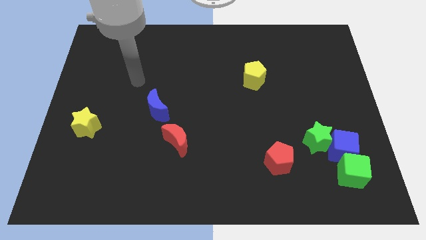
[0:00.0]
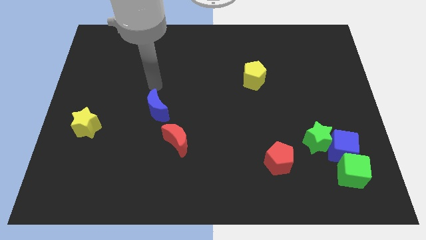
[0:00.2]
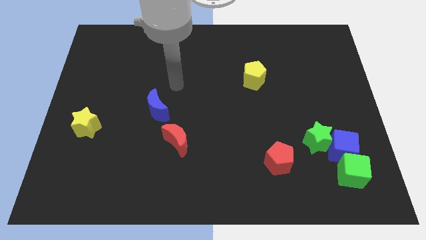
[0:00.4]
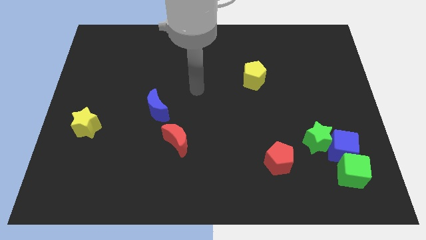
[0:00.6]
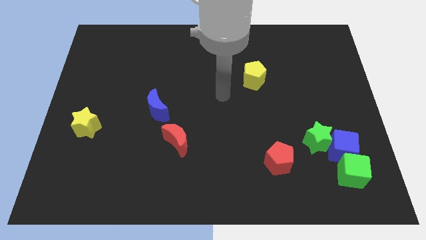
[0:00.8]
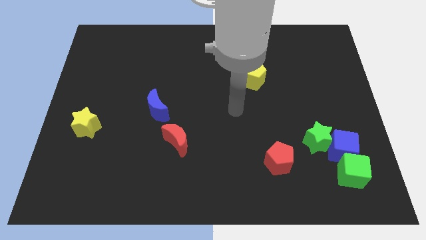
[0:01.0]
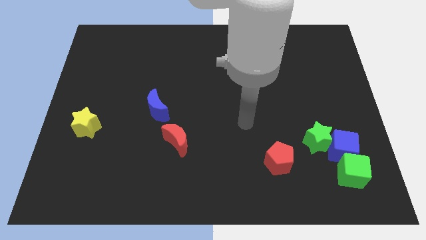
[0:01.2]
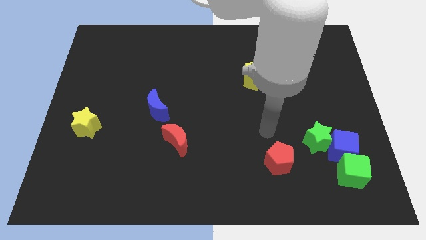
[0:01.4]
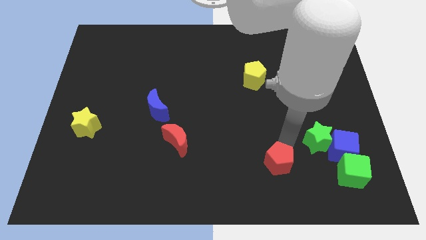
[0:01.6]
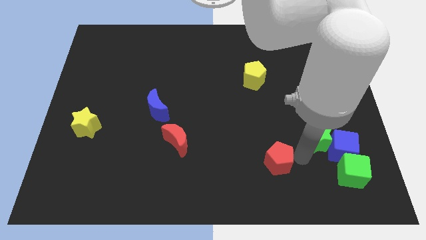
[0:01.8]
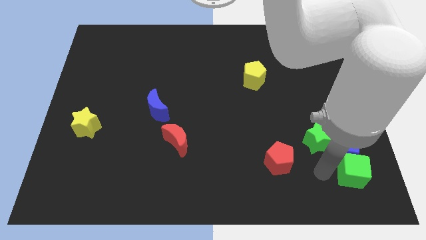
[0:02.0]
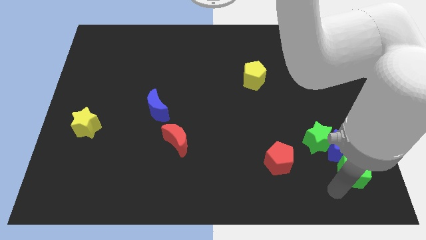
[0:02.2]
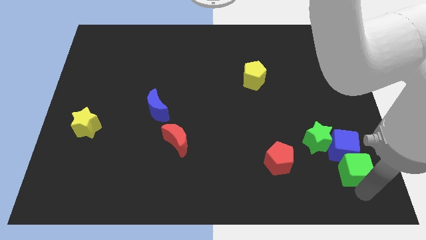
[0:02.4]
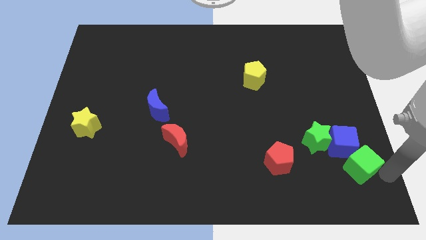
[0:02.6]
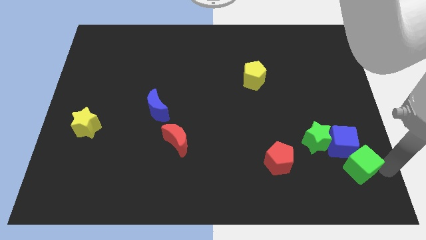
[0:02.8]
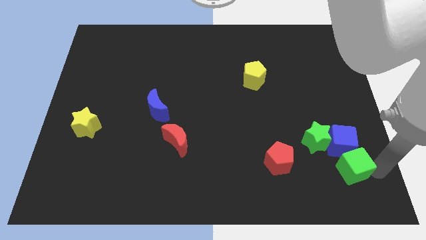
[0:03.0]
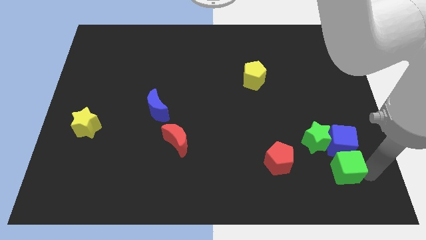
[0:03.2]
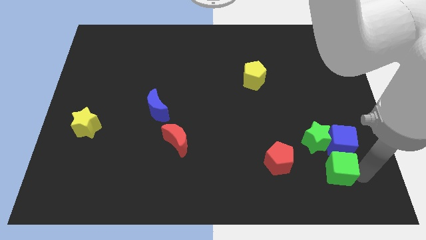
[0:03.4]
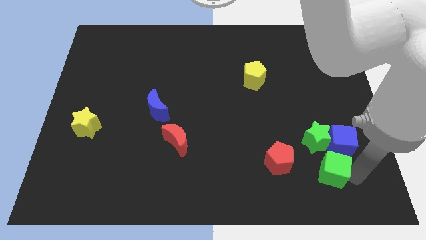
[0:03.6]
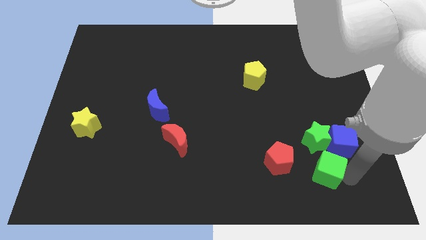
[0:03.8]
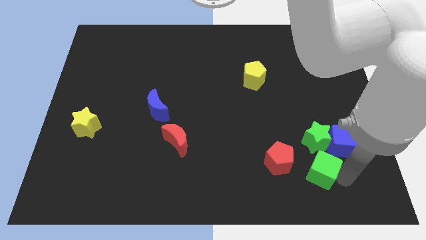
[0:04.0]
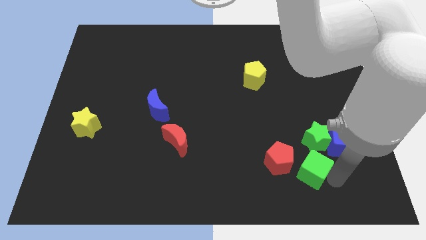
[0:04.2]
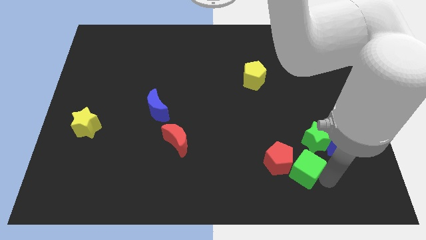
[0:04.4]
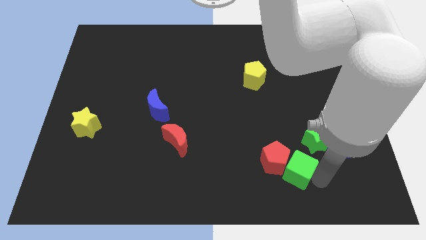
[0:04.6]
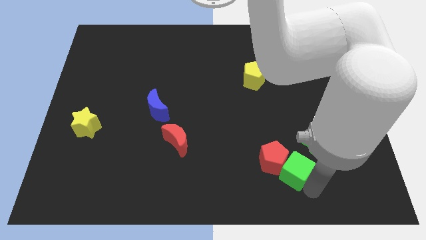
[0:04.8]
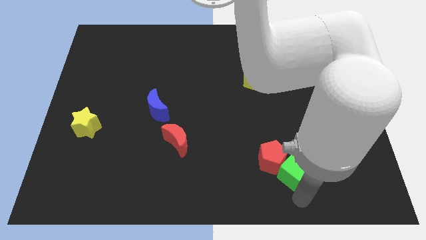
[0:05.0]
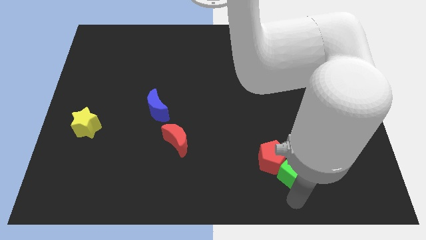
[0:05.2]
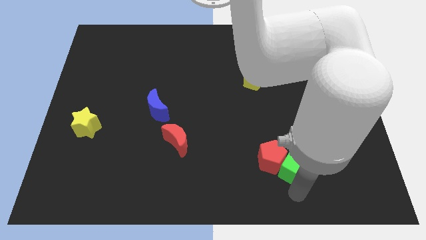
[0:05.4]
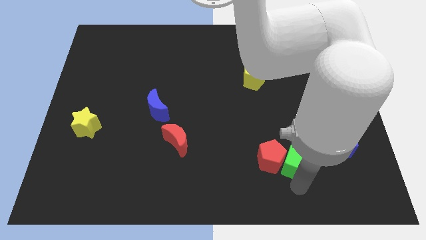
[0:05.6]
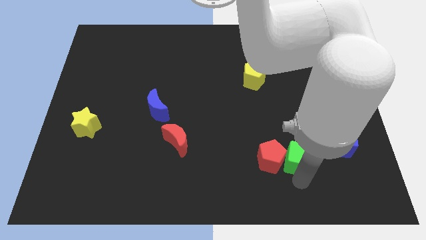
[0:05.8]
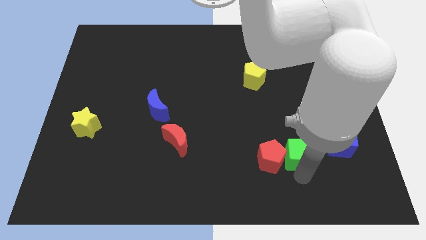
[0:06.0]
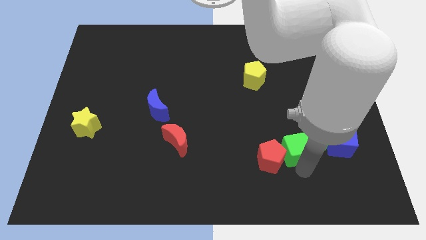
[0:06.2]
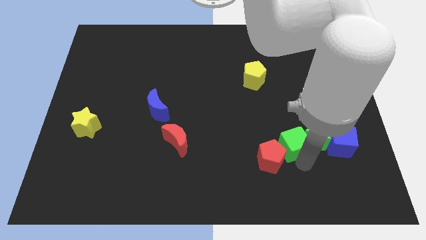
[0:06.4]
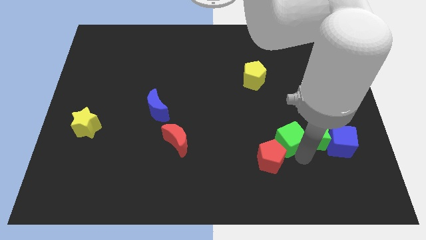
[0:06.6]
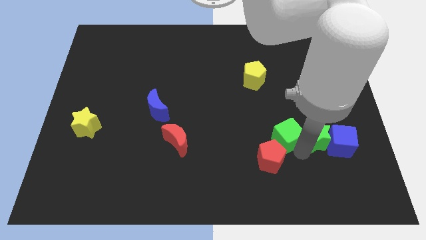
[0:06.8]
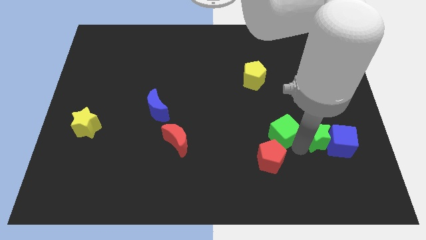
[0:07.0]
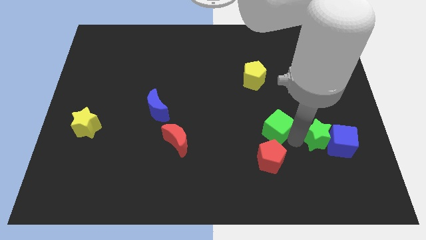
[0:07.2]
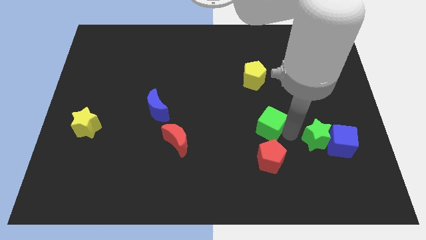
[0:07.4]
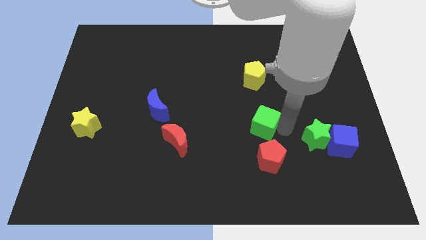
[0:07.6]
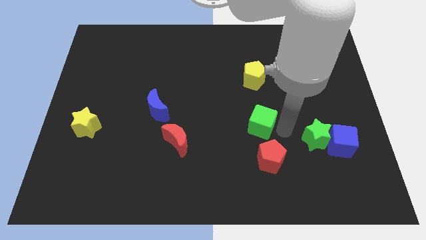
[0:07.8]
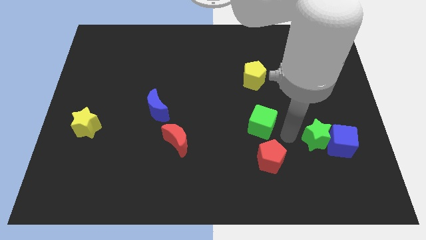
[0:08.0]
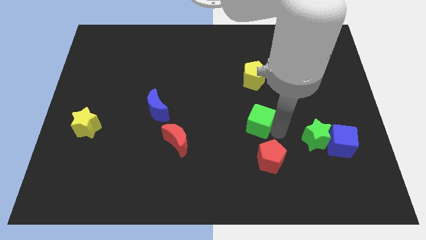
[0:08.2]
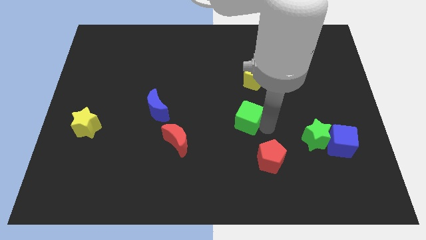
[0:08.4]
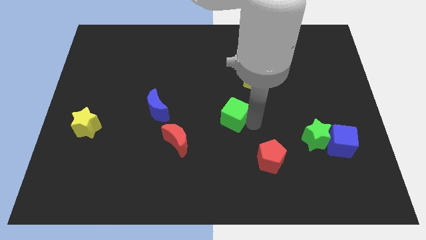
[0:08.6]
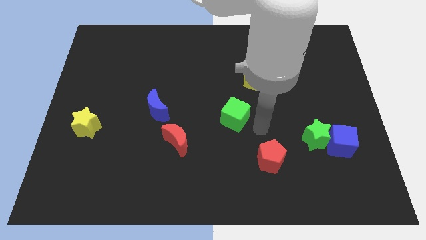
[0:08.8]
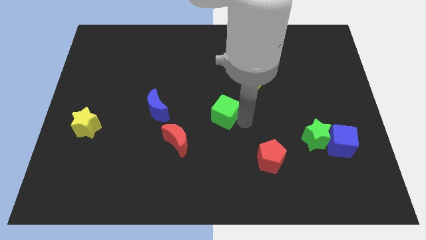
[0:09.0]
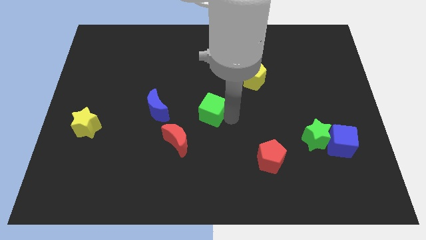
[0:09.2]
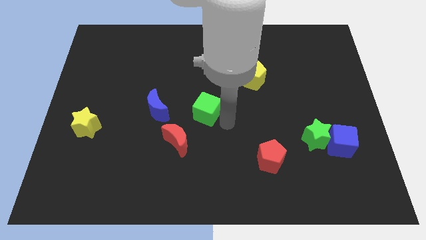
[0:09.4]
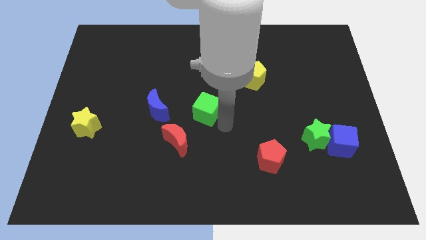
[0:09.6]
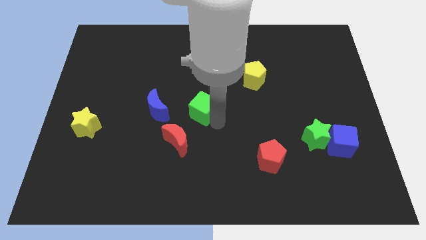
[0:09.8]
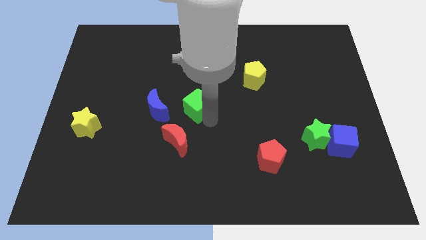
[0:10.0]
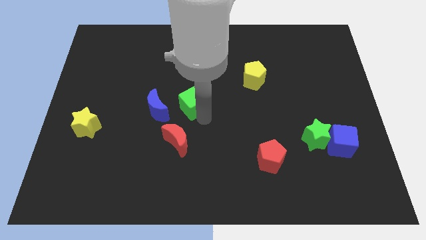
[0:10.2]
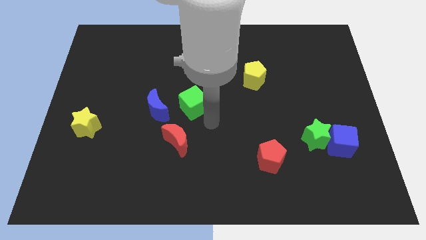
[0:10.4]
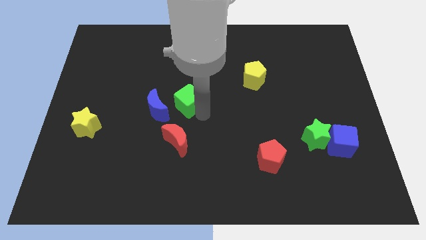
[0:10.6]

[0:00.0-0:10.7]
move the green cube to the top right side of the blue moon

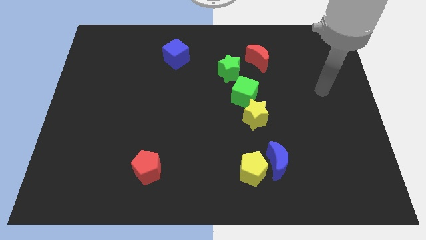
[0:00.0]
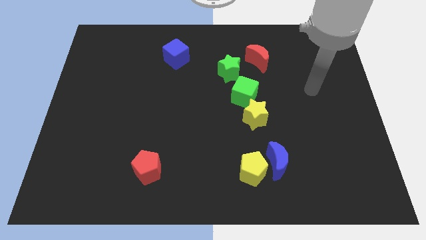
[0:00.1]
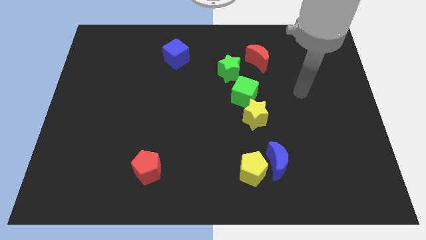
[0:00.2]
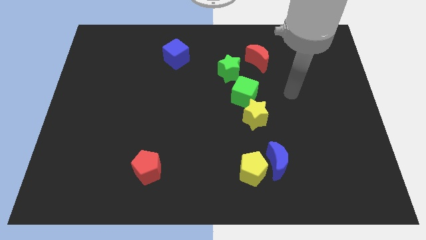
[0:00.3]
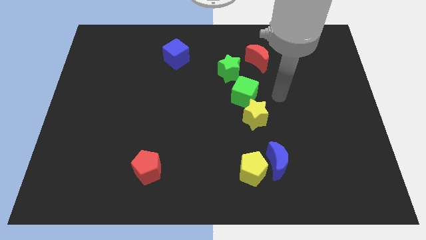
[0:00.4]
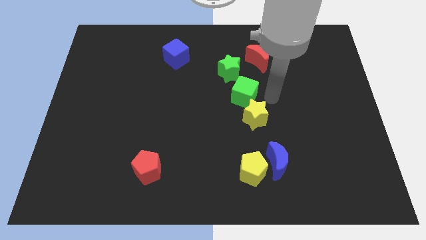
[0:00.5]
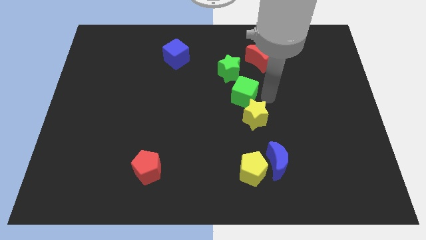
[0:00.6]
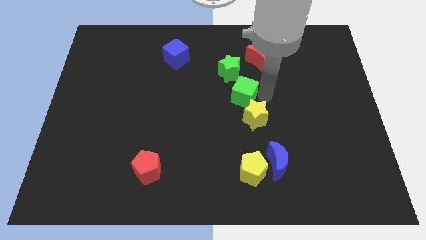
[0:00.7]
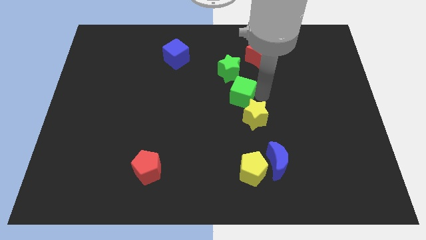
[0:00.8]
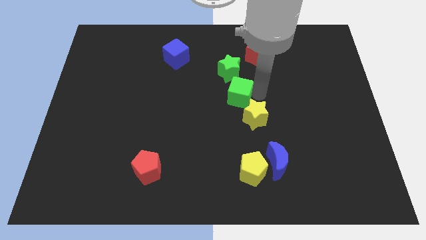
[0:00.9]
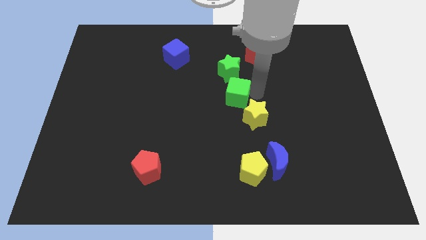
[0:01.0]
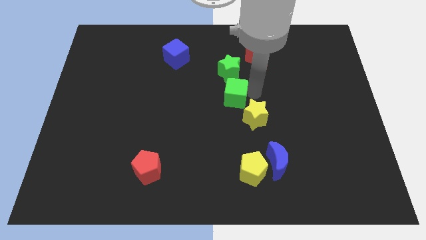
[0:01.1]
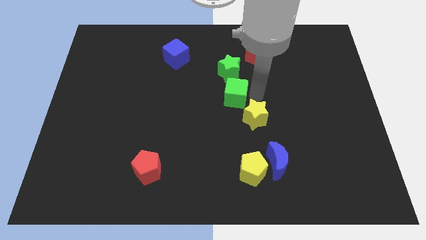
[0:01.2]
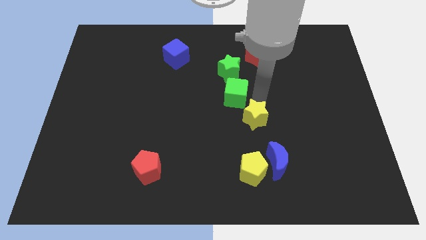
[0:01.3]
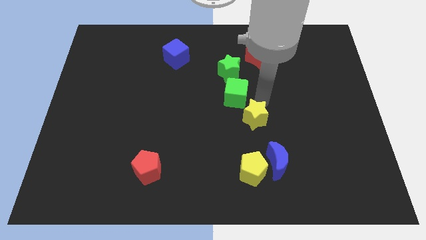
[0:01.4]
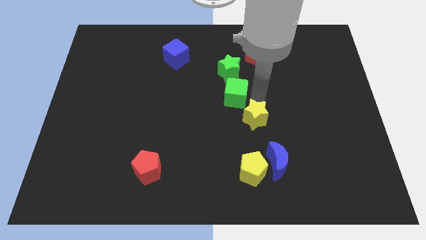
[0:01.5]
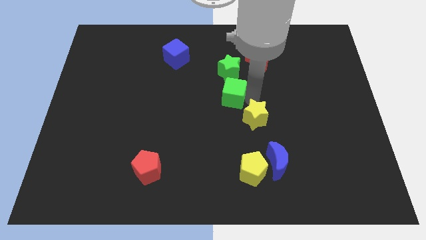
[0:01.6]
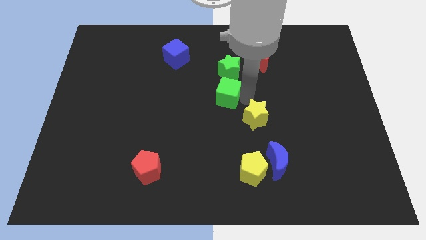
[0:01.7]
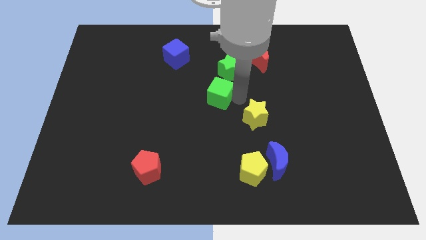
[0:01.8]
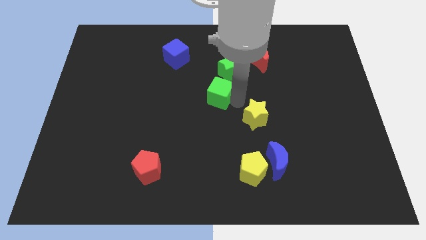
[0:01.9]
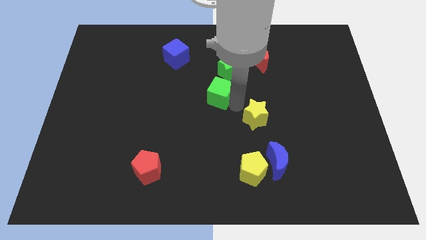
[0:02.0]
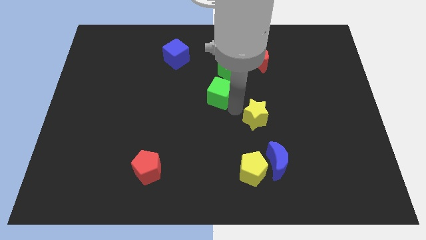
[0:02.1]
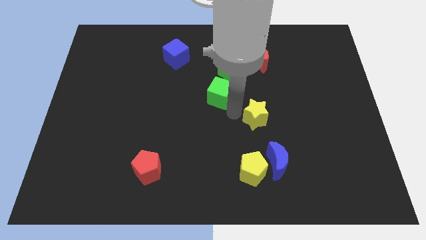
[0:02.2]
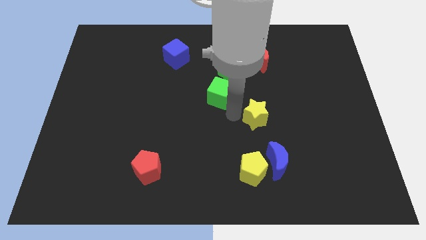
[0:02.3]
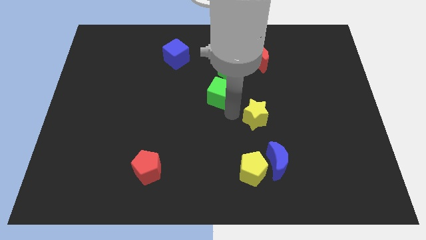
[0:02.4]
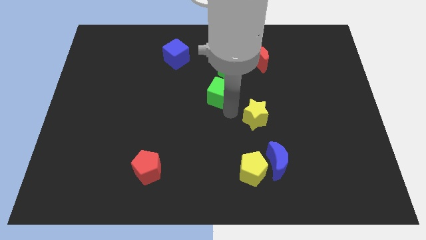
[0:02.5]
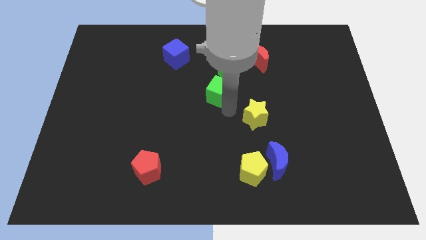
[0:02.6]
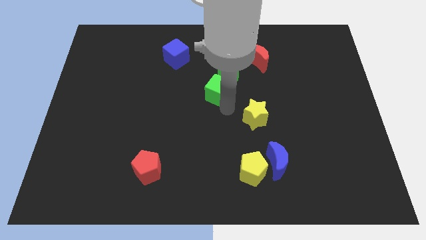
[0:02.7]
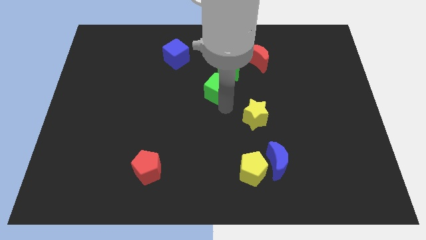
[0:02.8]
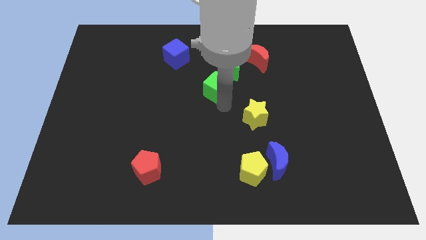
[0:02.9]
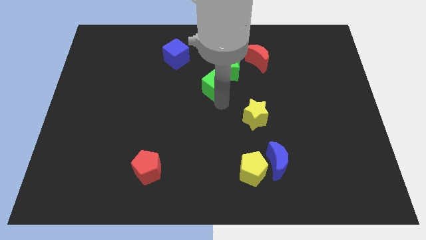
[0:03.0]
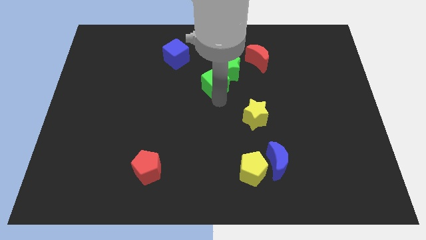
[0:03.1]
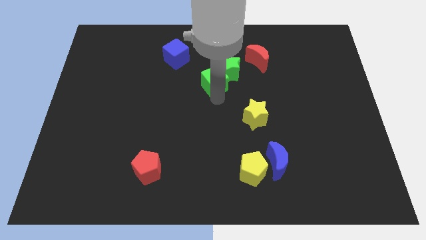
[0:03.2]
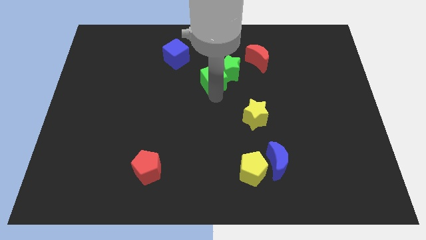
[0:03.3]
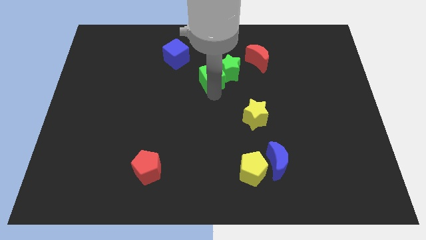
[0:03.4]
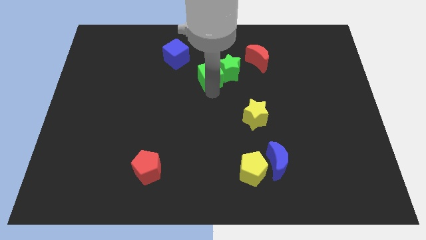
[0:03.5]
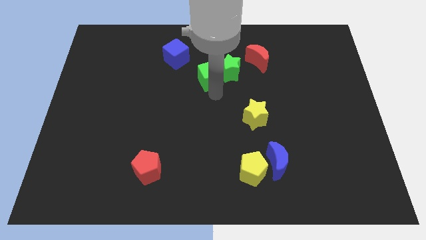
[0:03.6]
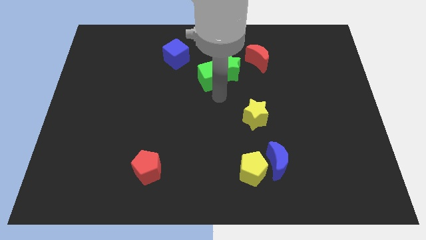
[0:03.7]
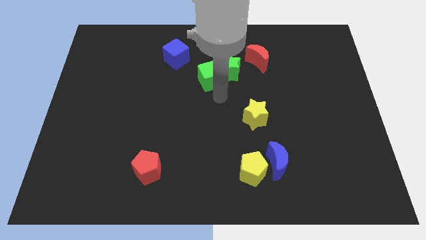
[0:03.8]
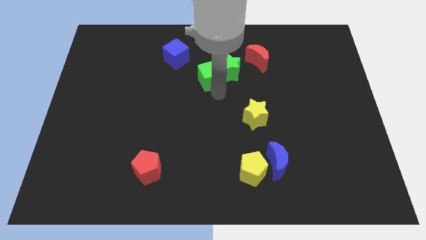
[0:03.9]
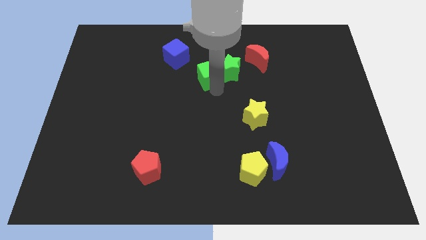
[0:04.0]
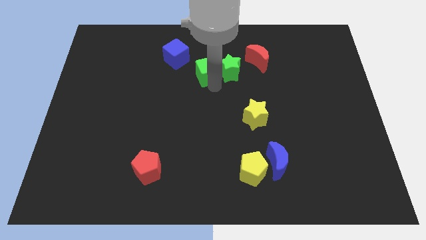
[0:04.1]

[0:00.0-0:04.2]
push the green cube diagonally up and to the left of the green star
